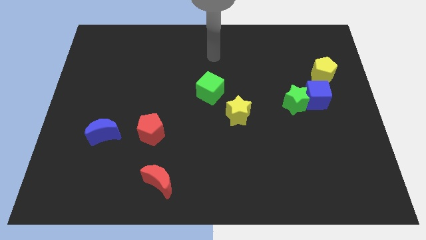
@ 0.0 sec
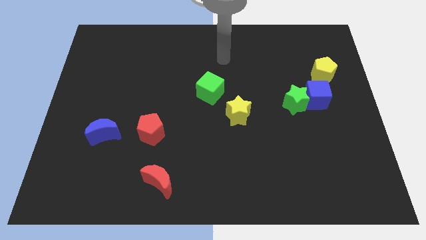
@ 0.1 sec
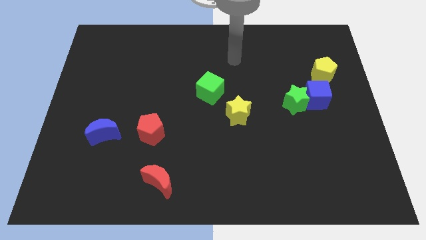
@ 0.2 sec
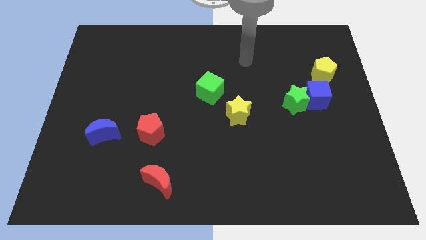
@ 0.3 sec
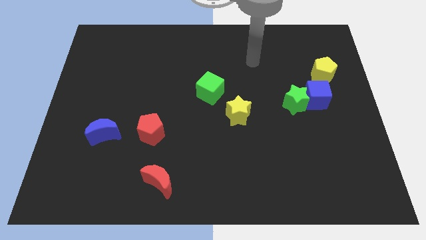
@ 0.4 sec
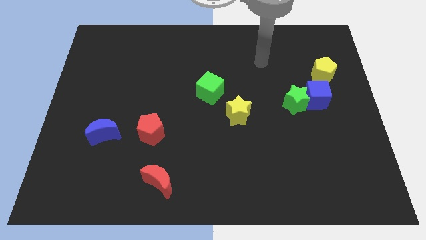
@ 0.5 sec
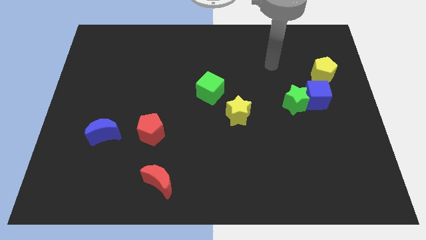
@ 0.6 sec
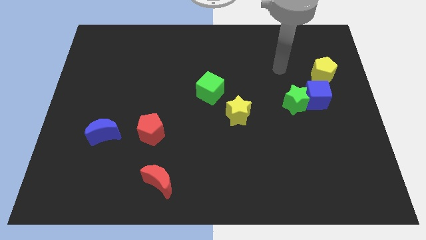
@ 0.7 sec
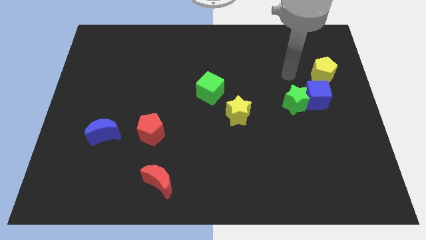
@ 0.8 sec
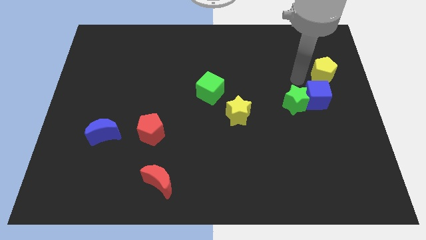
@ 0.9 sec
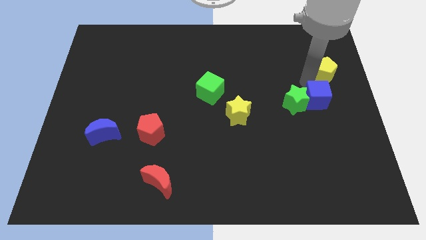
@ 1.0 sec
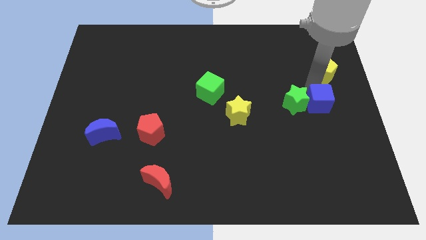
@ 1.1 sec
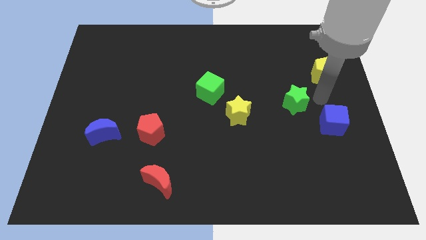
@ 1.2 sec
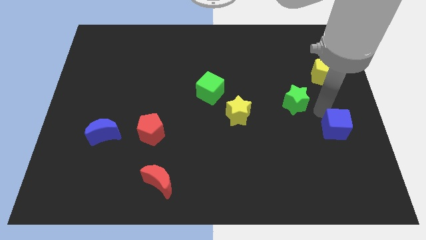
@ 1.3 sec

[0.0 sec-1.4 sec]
separate the green star from the blue cube

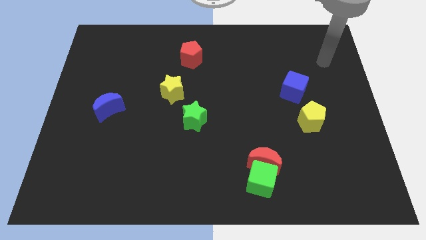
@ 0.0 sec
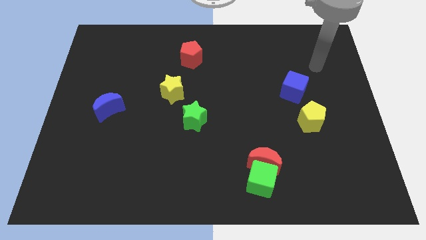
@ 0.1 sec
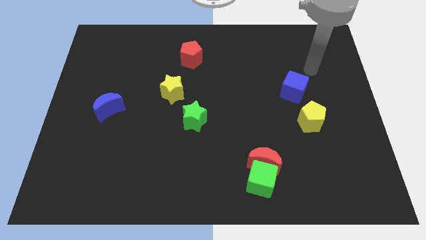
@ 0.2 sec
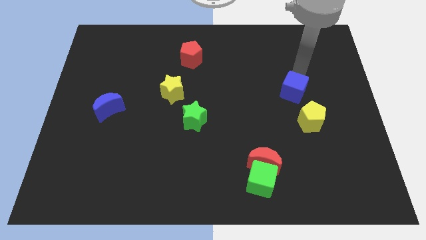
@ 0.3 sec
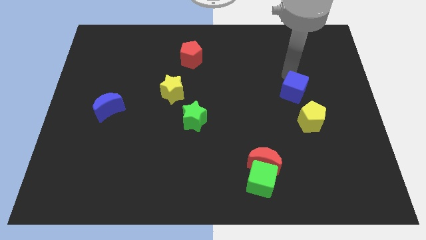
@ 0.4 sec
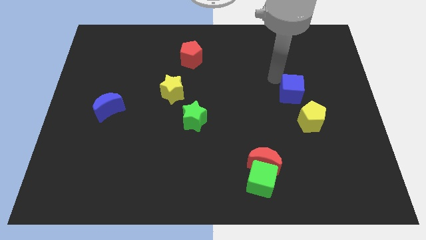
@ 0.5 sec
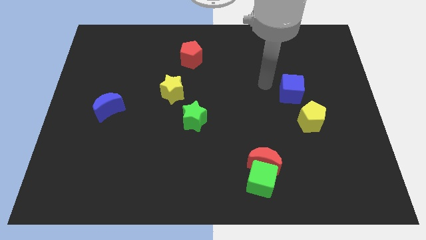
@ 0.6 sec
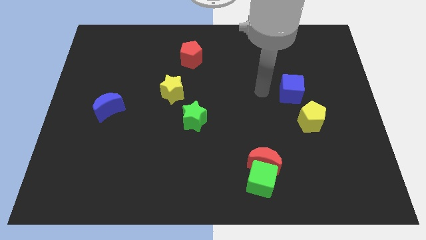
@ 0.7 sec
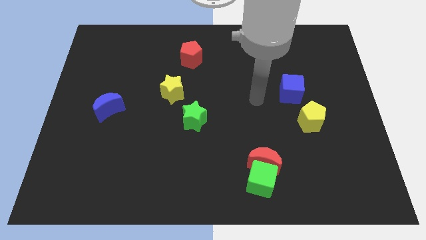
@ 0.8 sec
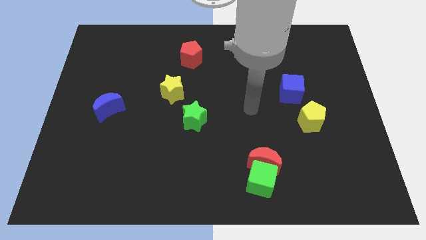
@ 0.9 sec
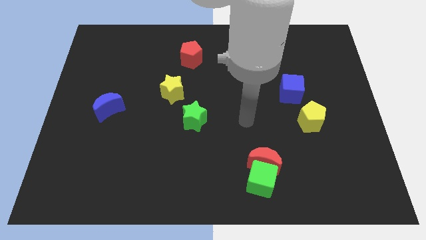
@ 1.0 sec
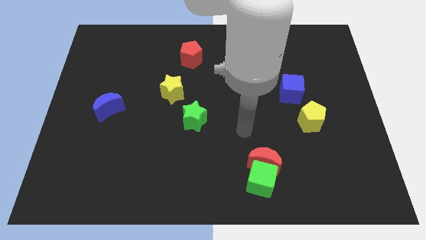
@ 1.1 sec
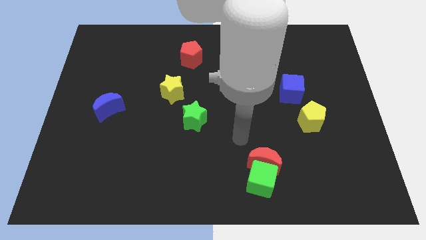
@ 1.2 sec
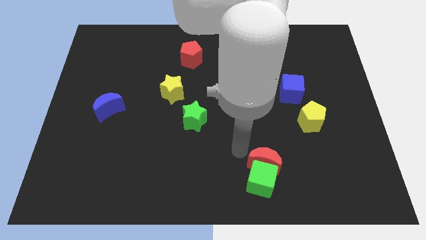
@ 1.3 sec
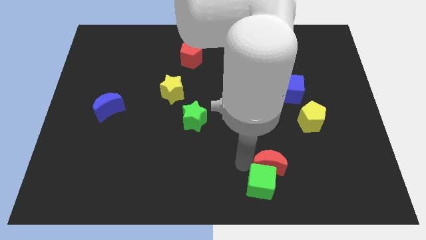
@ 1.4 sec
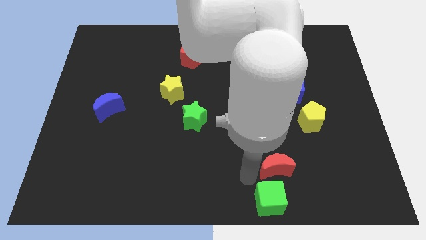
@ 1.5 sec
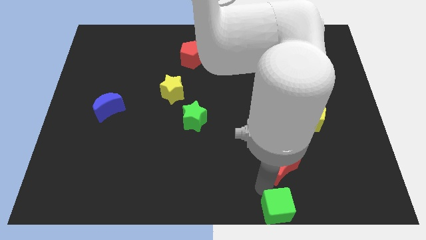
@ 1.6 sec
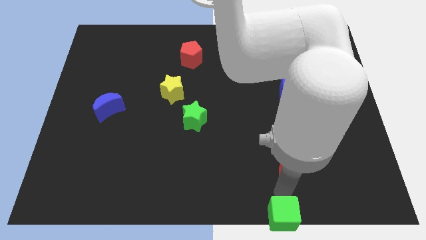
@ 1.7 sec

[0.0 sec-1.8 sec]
move the red moon away from the green cube

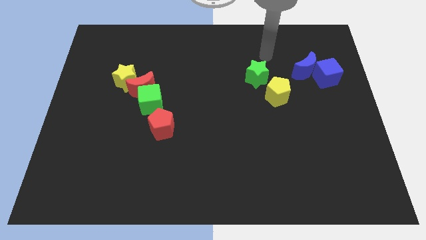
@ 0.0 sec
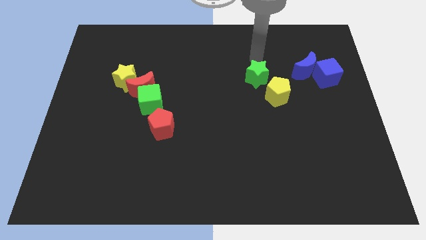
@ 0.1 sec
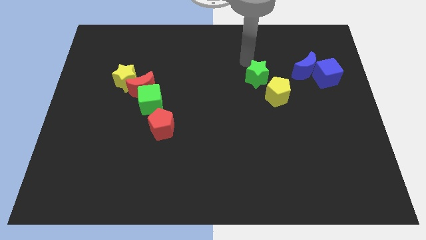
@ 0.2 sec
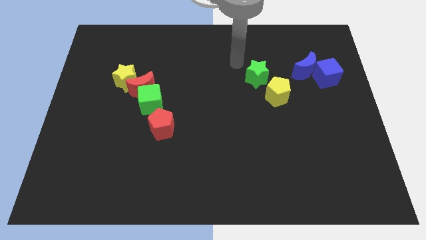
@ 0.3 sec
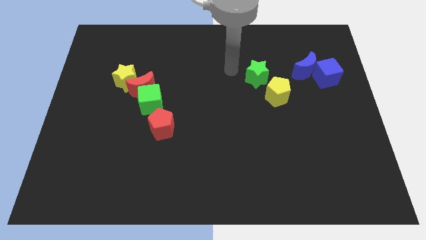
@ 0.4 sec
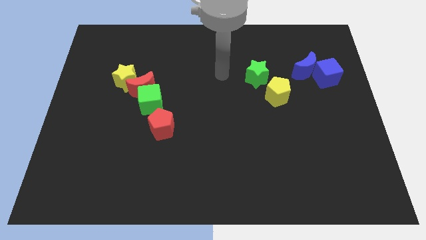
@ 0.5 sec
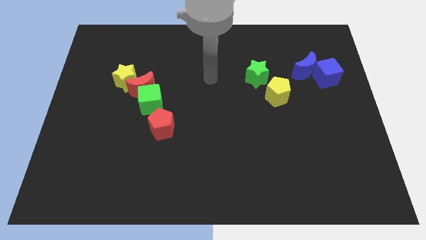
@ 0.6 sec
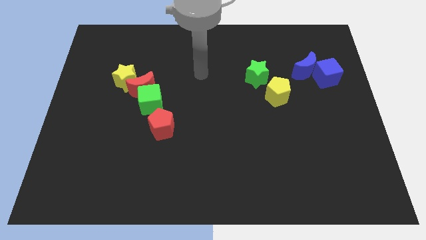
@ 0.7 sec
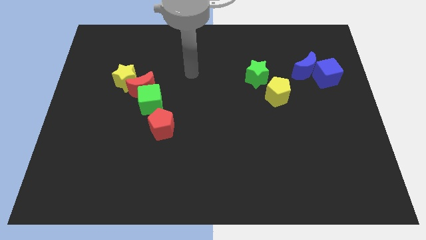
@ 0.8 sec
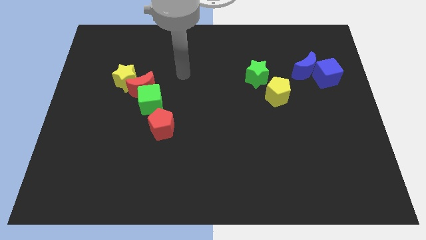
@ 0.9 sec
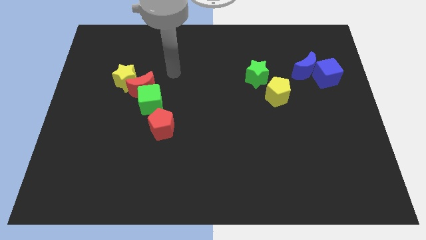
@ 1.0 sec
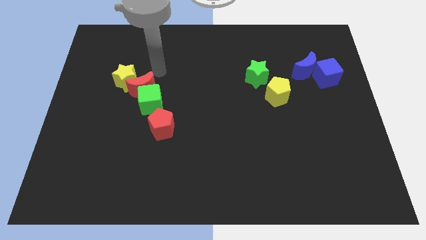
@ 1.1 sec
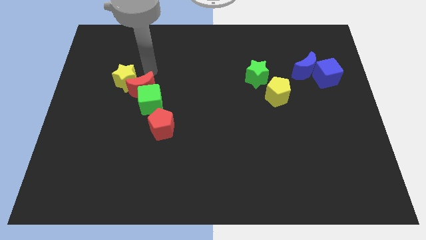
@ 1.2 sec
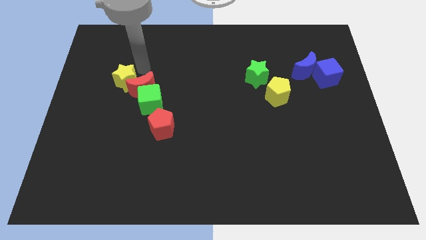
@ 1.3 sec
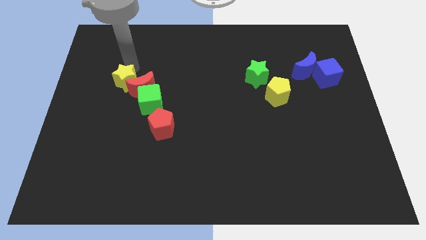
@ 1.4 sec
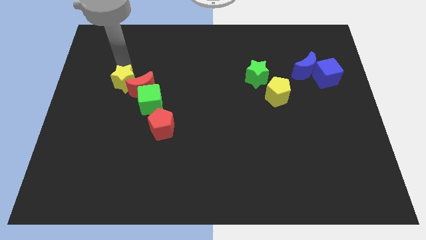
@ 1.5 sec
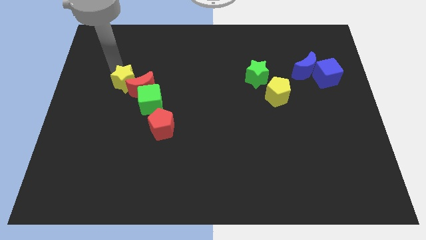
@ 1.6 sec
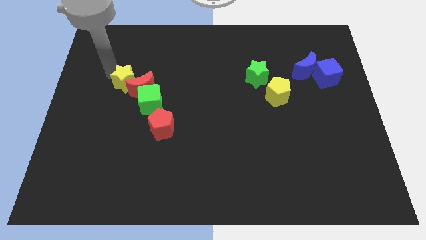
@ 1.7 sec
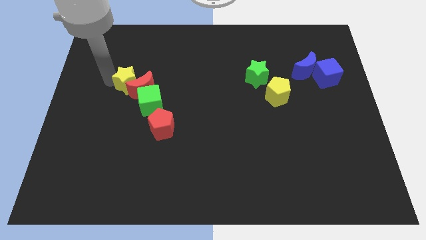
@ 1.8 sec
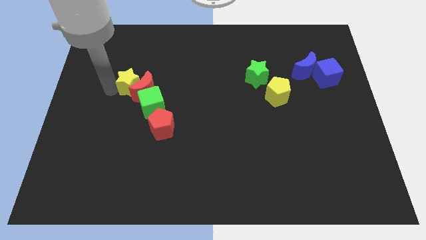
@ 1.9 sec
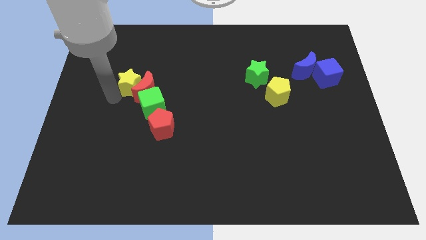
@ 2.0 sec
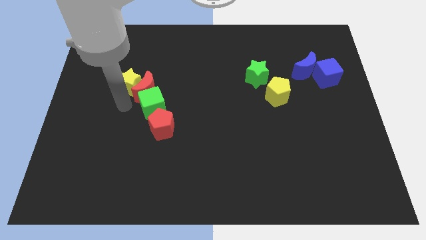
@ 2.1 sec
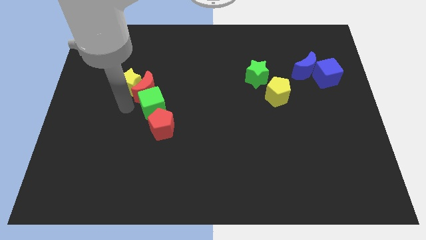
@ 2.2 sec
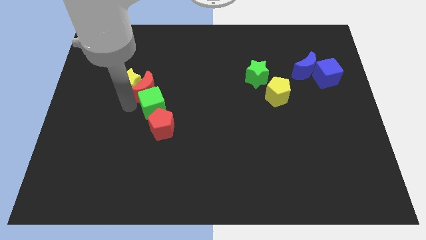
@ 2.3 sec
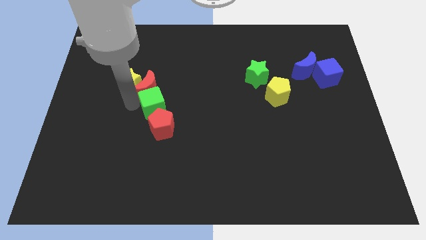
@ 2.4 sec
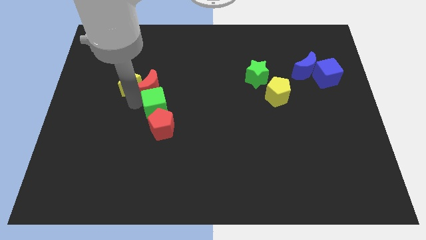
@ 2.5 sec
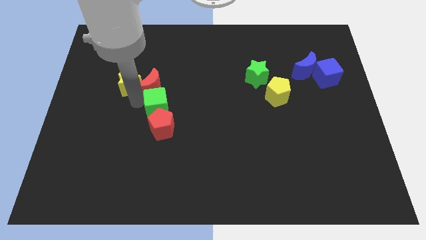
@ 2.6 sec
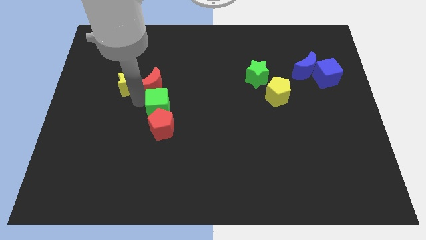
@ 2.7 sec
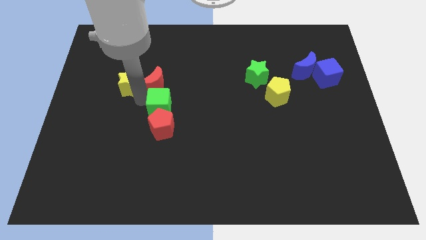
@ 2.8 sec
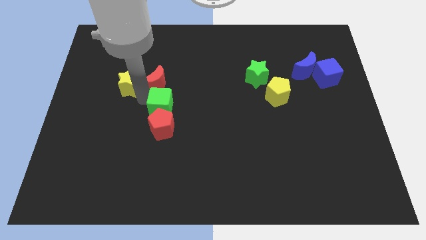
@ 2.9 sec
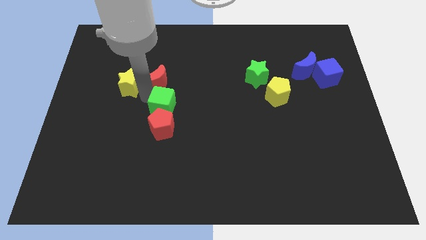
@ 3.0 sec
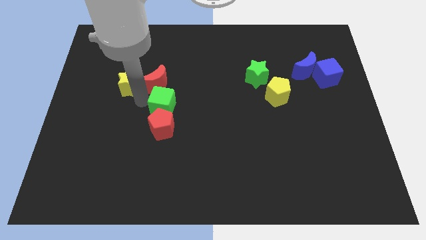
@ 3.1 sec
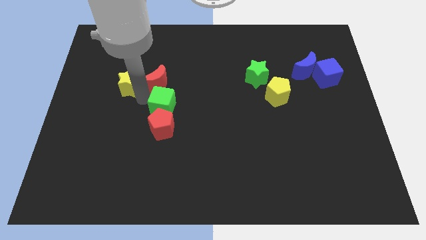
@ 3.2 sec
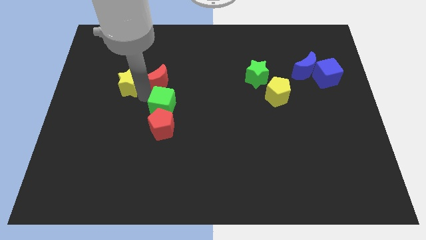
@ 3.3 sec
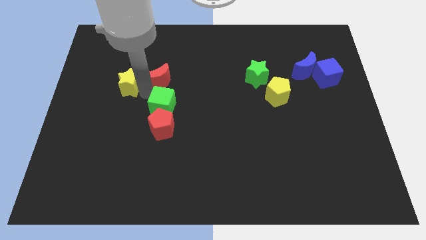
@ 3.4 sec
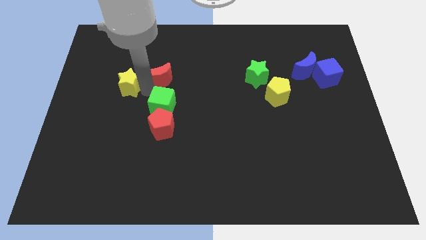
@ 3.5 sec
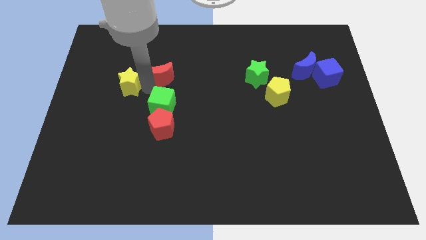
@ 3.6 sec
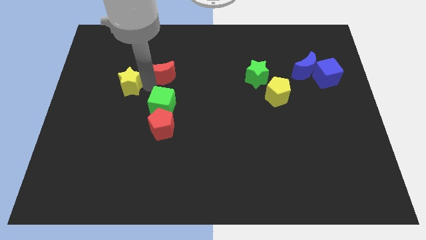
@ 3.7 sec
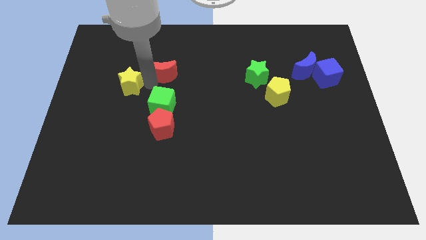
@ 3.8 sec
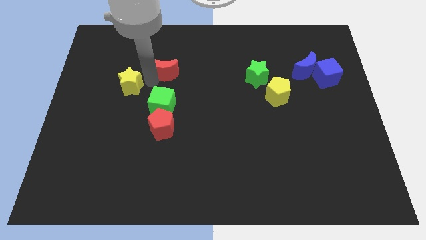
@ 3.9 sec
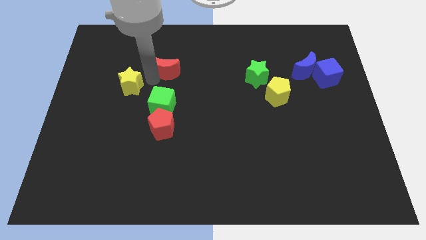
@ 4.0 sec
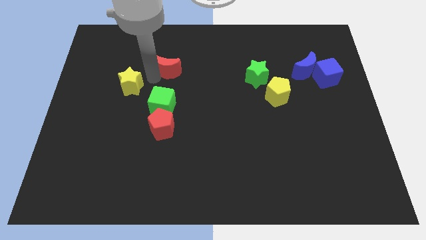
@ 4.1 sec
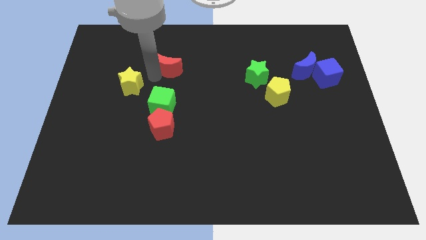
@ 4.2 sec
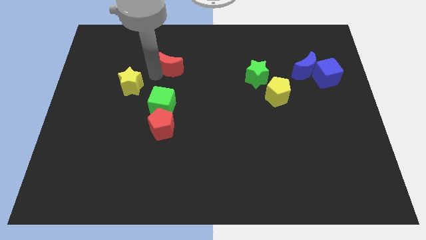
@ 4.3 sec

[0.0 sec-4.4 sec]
separate the red moon from the green cube and yellow star

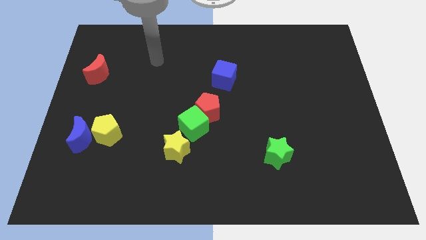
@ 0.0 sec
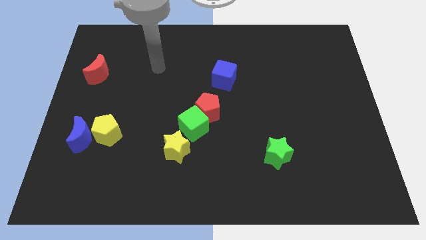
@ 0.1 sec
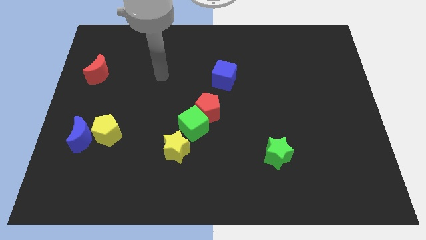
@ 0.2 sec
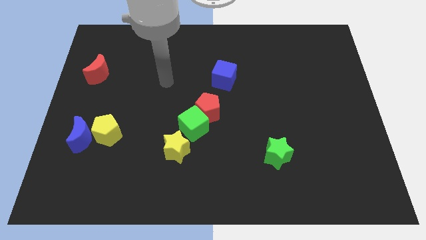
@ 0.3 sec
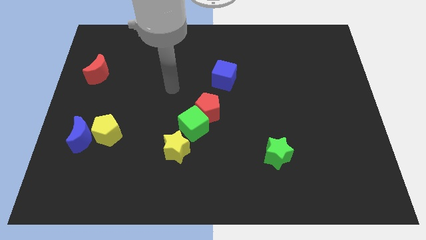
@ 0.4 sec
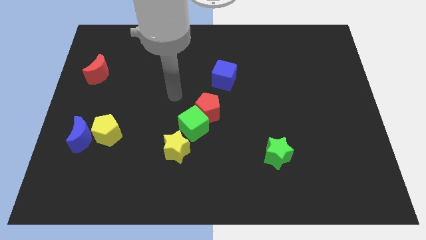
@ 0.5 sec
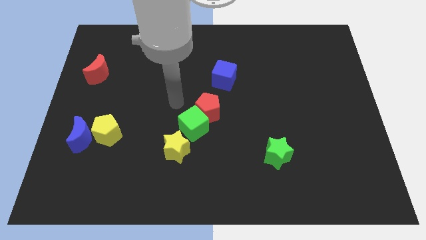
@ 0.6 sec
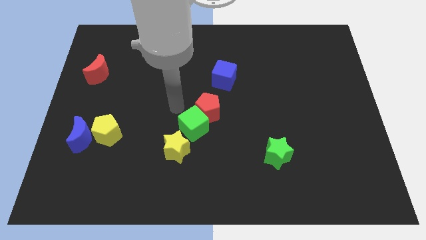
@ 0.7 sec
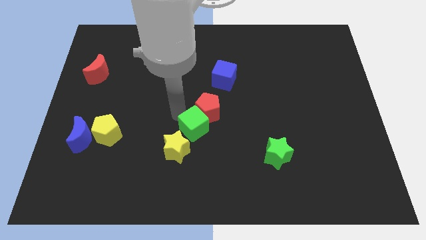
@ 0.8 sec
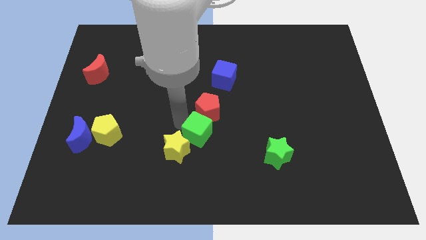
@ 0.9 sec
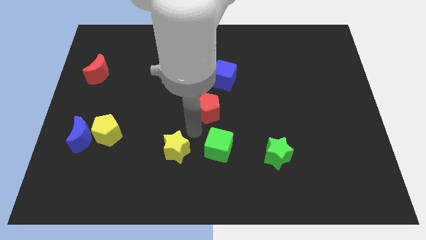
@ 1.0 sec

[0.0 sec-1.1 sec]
separate the red pentagon from the green cube

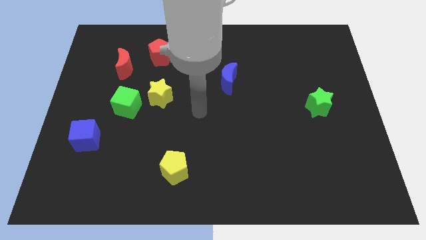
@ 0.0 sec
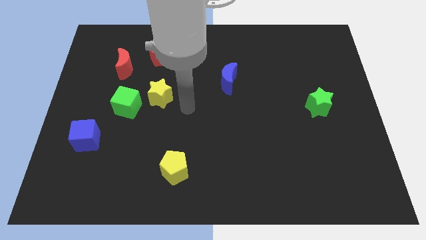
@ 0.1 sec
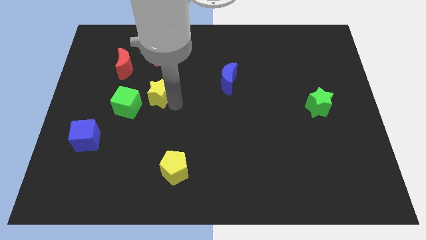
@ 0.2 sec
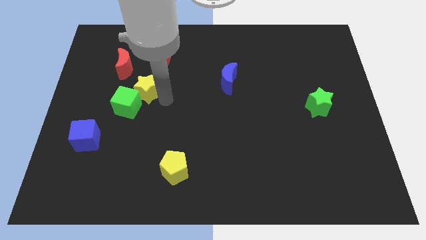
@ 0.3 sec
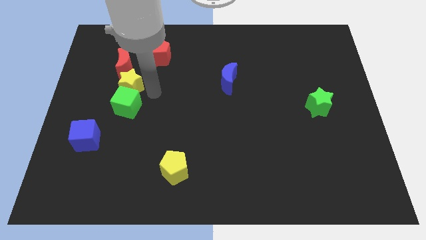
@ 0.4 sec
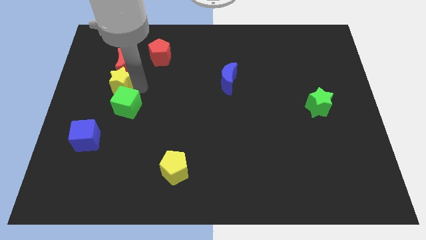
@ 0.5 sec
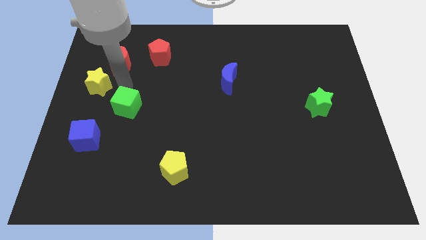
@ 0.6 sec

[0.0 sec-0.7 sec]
move the green cube away from the yellow star
